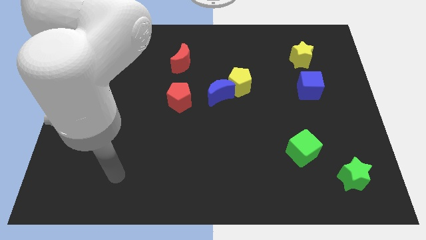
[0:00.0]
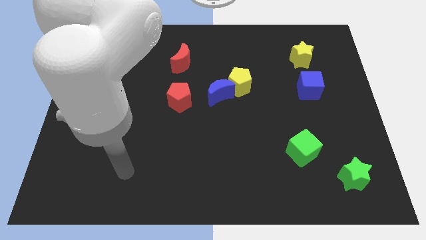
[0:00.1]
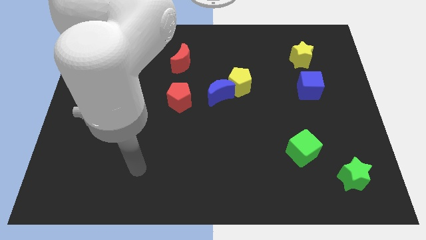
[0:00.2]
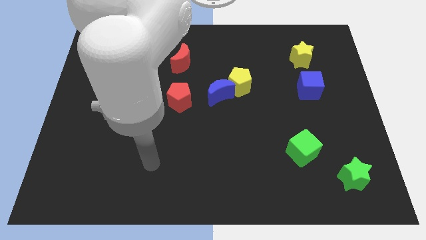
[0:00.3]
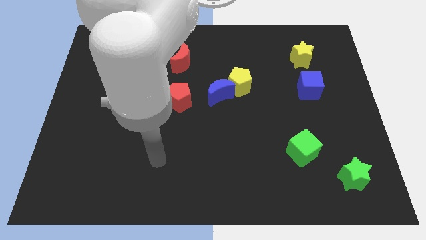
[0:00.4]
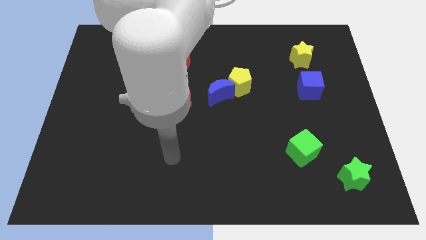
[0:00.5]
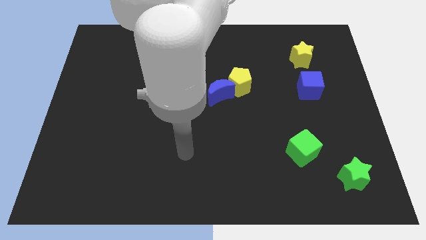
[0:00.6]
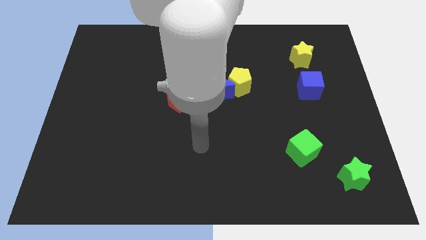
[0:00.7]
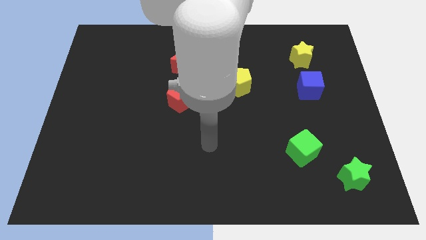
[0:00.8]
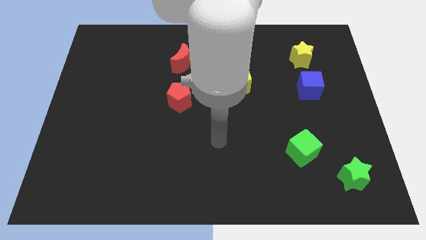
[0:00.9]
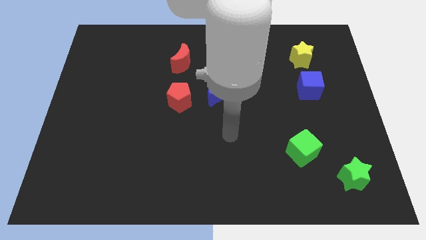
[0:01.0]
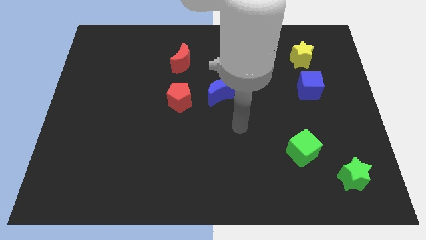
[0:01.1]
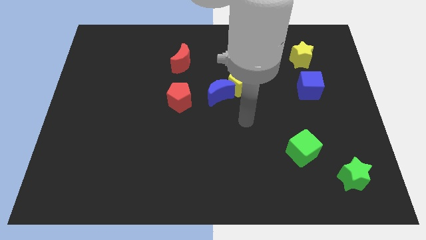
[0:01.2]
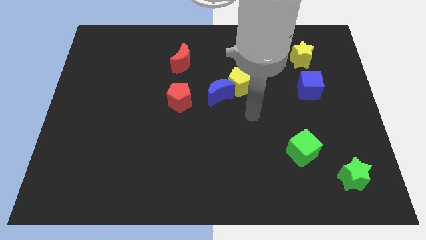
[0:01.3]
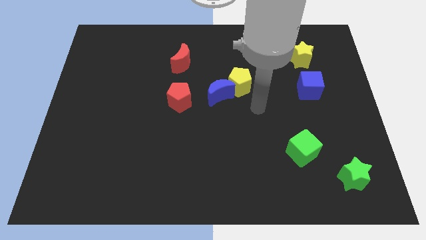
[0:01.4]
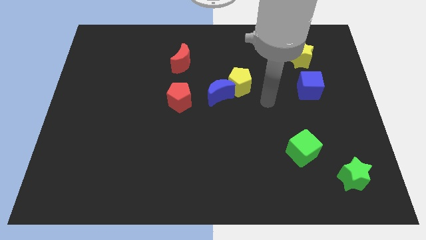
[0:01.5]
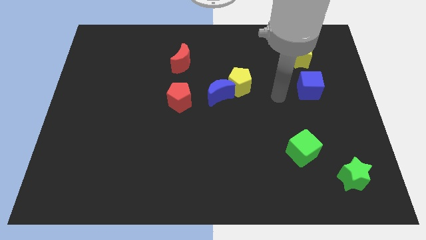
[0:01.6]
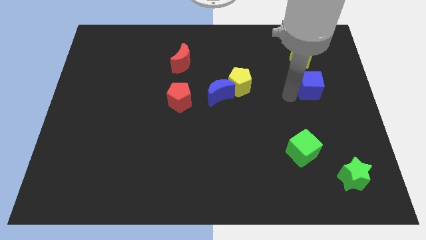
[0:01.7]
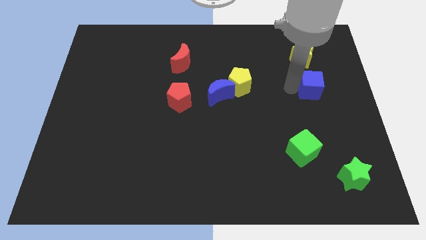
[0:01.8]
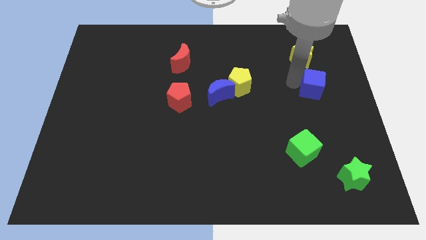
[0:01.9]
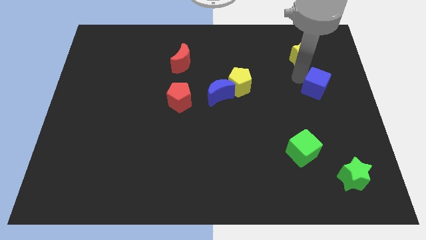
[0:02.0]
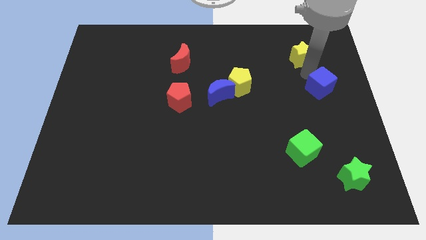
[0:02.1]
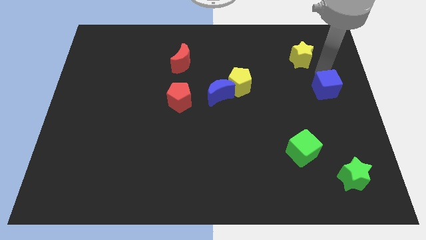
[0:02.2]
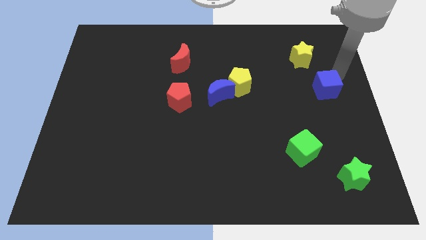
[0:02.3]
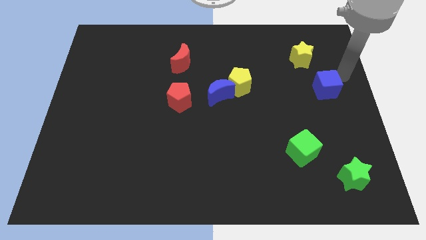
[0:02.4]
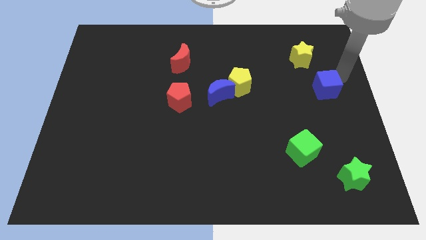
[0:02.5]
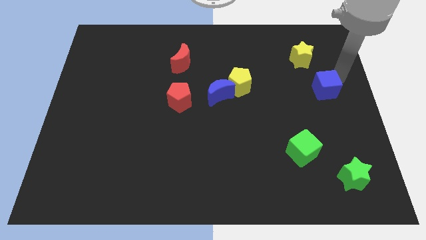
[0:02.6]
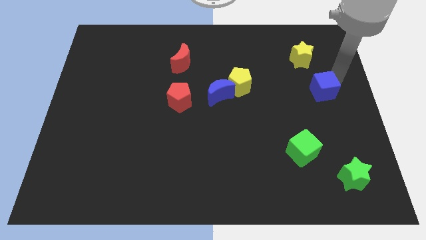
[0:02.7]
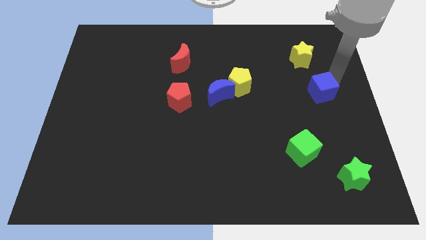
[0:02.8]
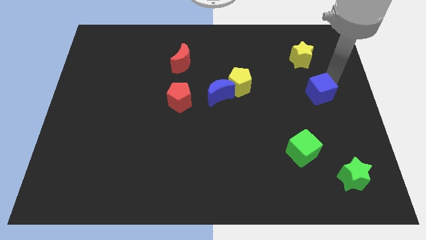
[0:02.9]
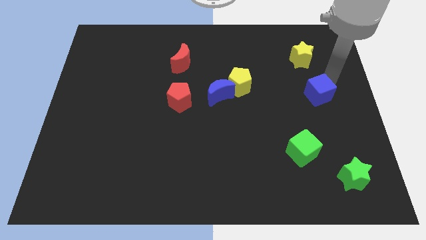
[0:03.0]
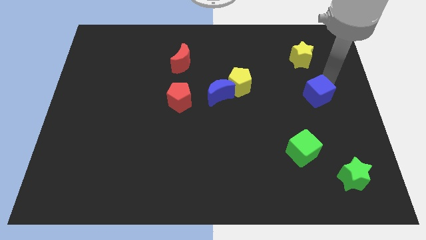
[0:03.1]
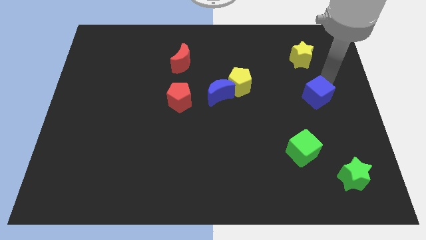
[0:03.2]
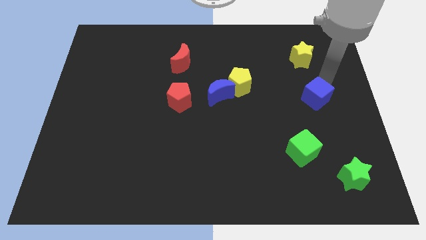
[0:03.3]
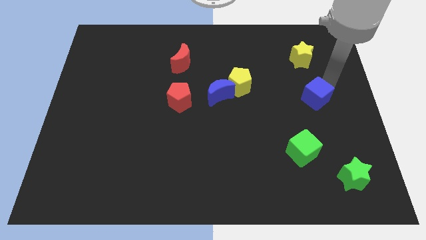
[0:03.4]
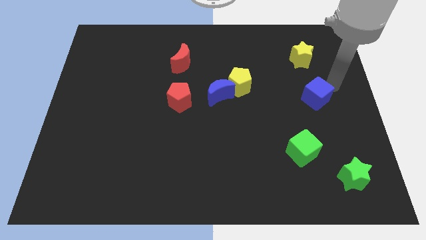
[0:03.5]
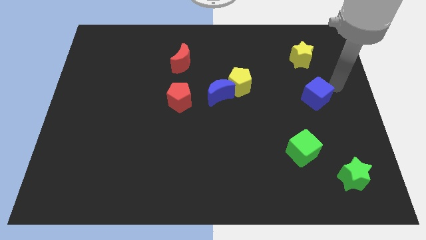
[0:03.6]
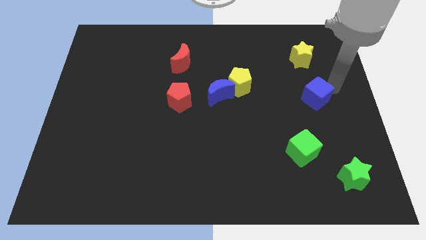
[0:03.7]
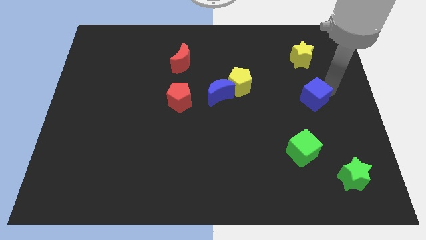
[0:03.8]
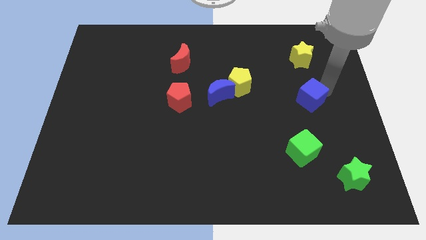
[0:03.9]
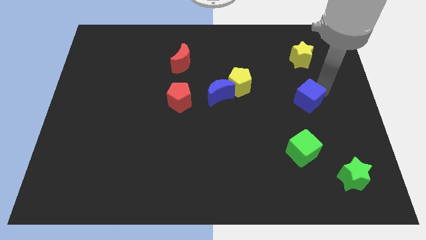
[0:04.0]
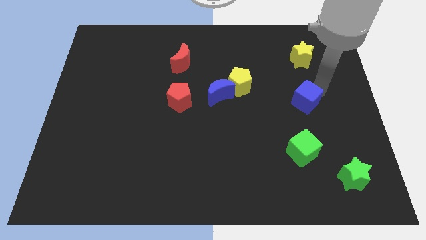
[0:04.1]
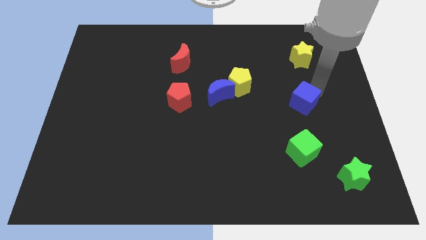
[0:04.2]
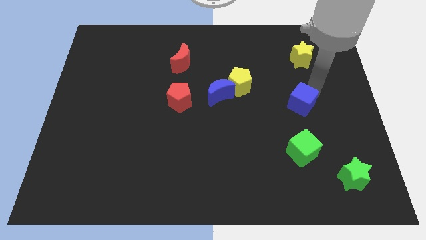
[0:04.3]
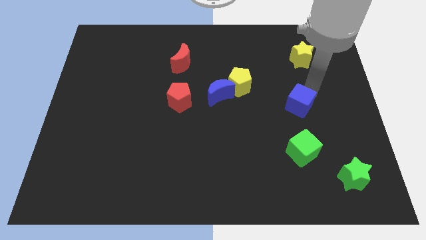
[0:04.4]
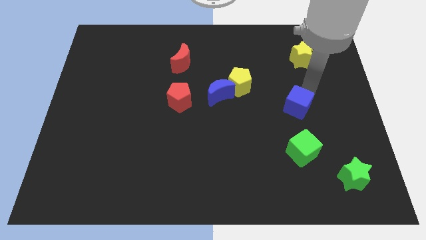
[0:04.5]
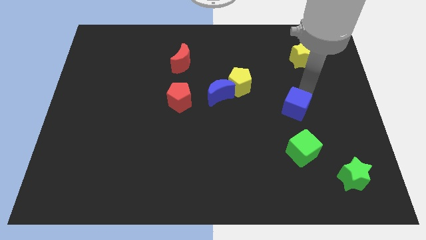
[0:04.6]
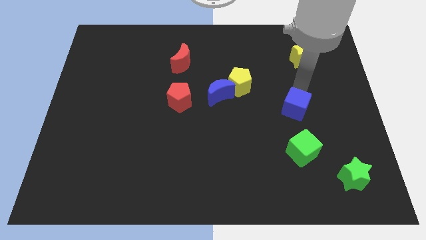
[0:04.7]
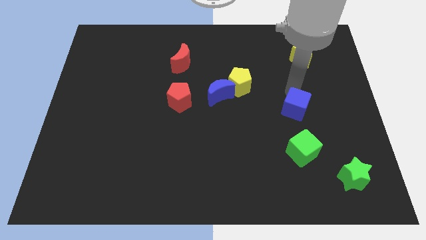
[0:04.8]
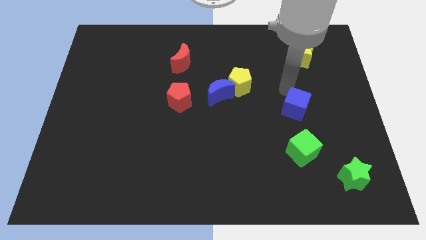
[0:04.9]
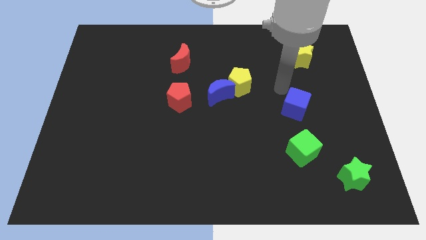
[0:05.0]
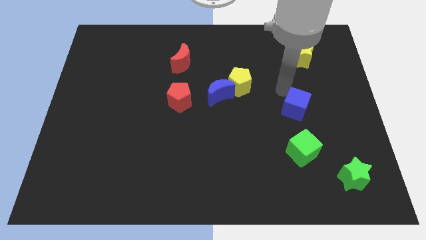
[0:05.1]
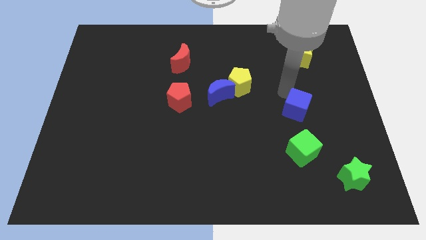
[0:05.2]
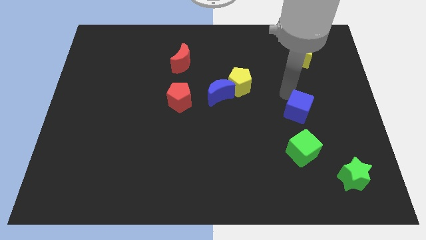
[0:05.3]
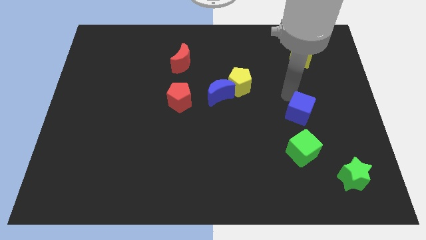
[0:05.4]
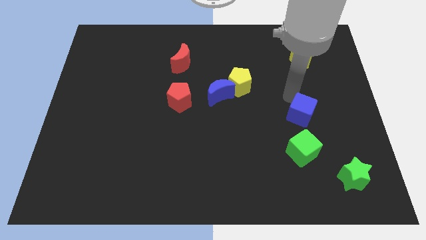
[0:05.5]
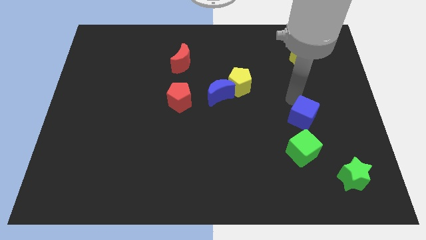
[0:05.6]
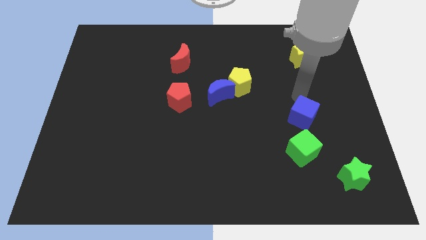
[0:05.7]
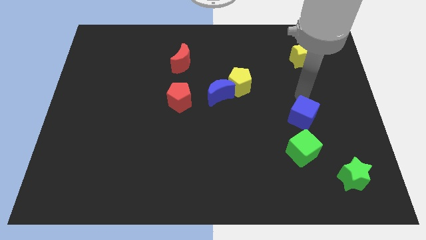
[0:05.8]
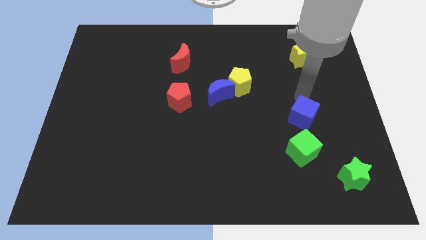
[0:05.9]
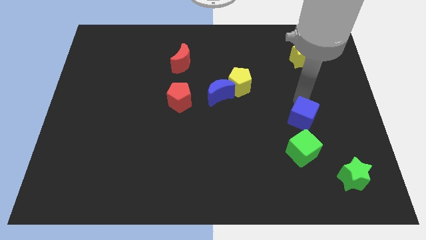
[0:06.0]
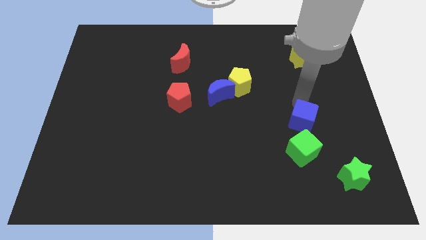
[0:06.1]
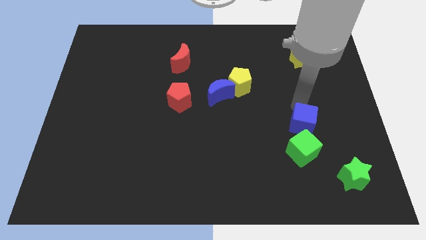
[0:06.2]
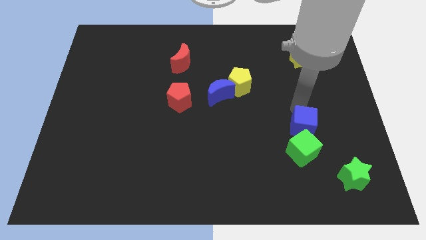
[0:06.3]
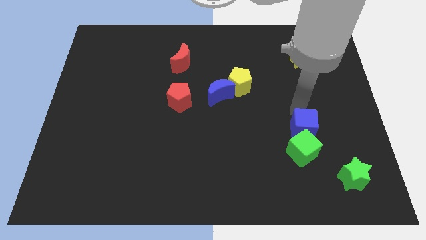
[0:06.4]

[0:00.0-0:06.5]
push the blue cube next to the green cube
